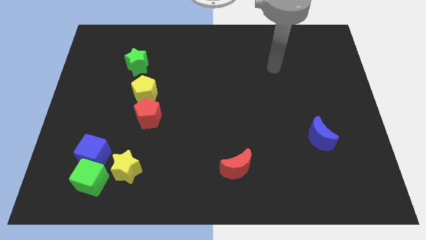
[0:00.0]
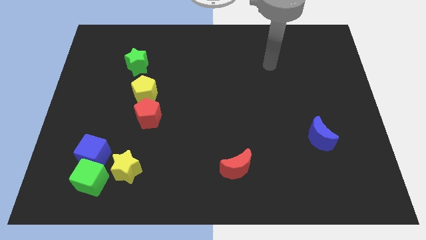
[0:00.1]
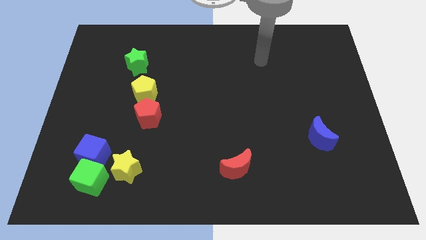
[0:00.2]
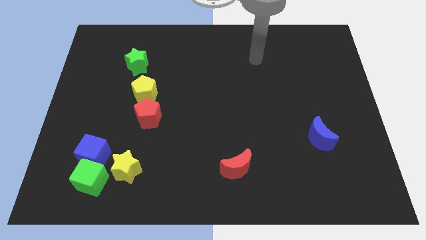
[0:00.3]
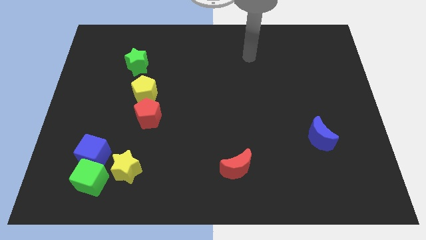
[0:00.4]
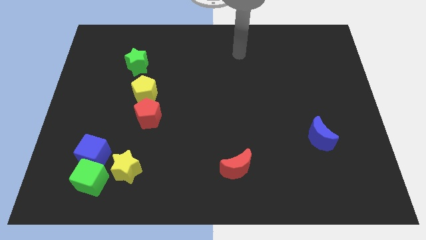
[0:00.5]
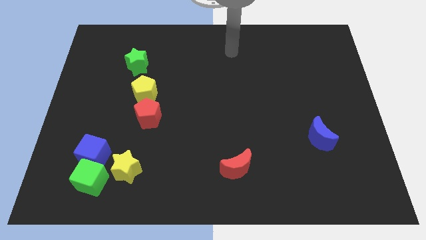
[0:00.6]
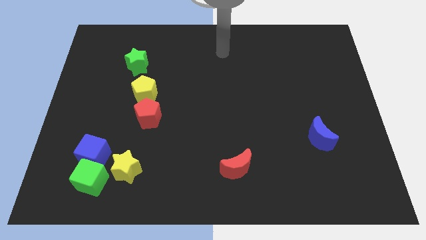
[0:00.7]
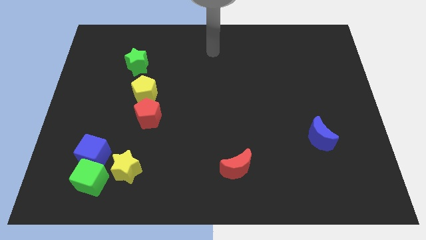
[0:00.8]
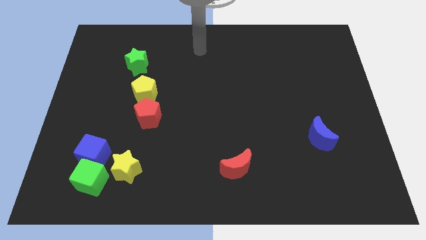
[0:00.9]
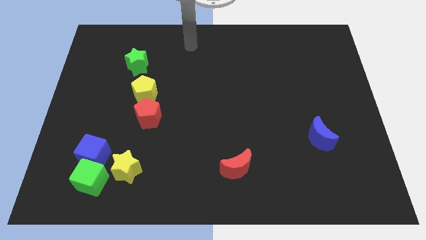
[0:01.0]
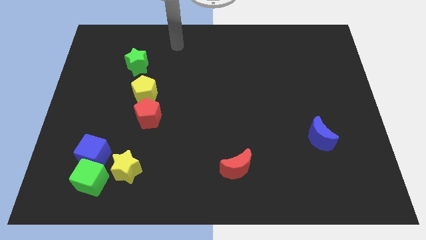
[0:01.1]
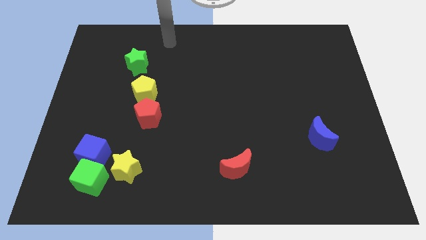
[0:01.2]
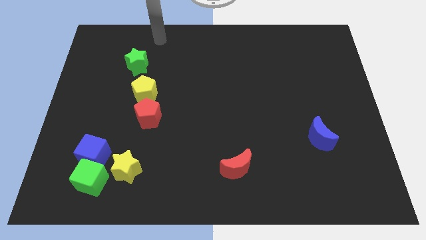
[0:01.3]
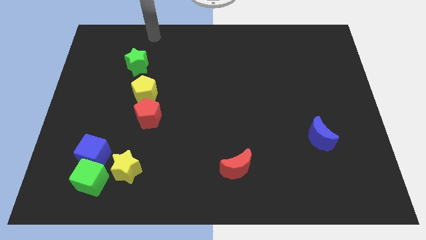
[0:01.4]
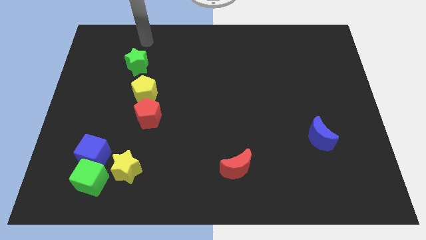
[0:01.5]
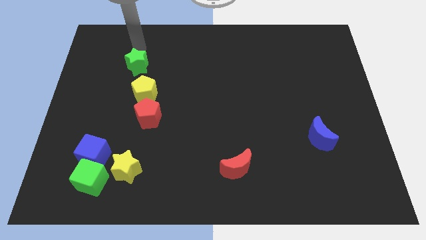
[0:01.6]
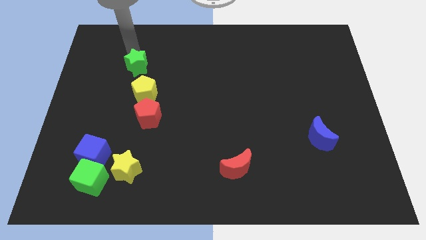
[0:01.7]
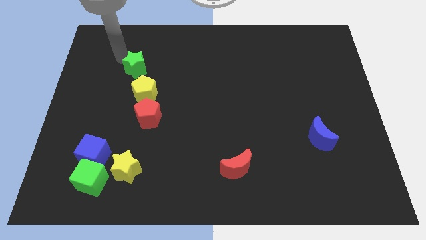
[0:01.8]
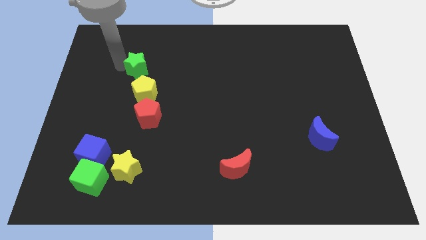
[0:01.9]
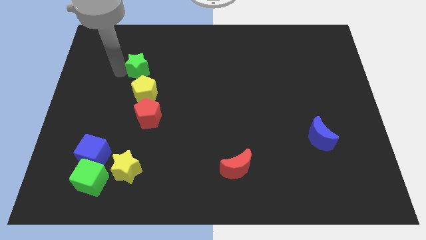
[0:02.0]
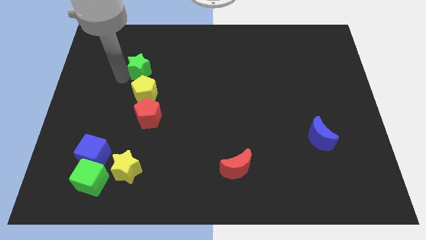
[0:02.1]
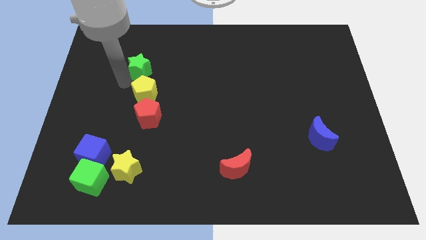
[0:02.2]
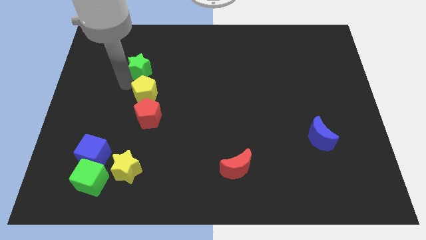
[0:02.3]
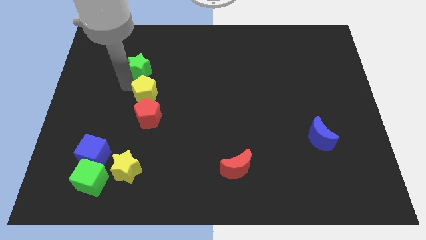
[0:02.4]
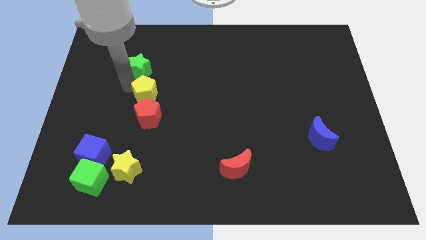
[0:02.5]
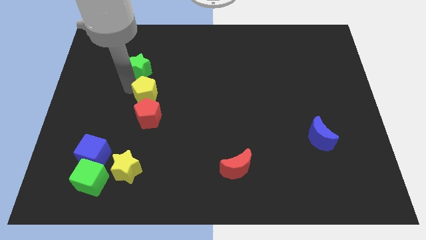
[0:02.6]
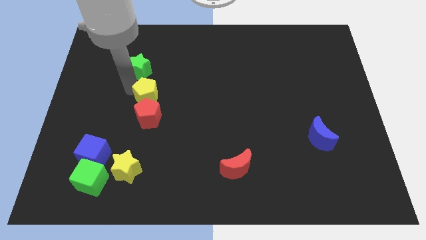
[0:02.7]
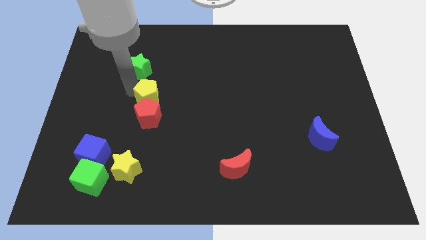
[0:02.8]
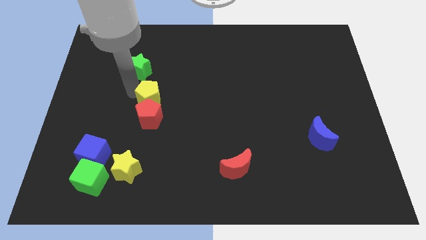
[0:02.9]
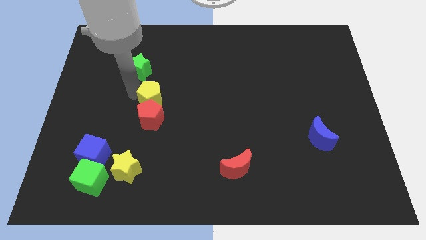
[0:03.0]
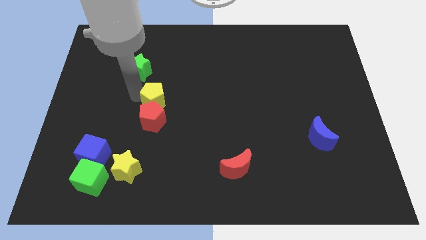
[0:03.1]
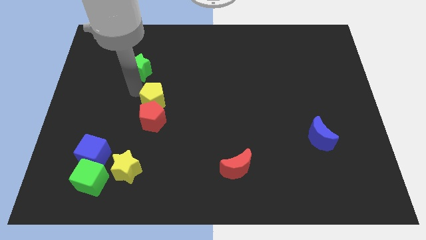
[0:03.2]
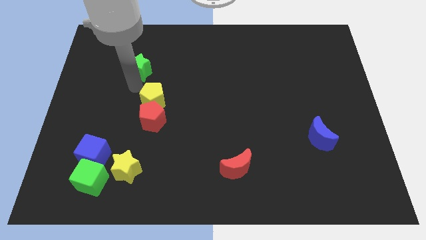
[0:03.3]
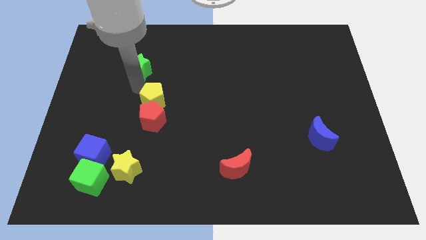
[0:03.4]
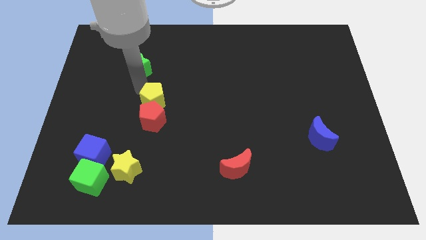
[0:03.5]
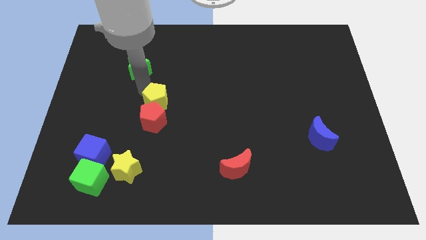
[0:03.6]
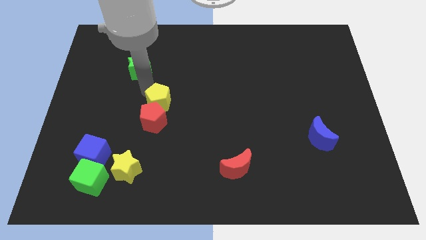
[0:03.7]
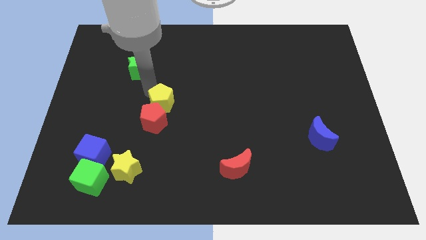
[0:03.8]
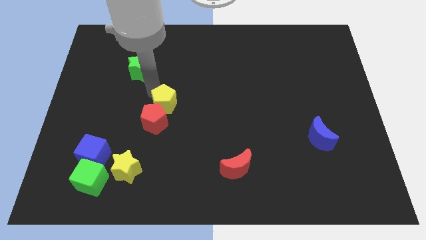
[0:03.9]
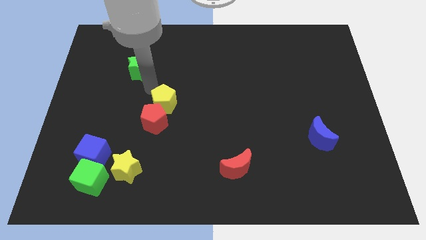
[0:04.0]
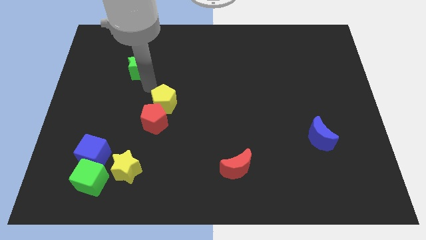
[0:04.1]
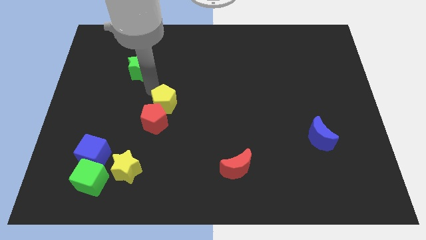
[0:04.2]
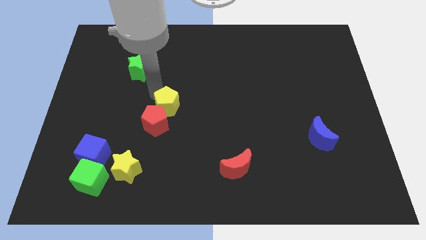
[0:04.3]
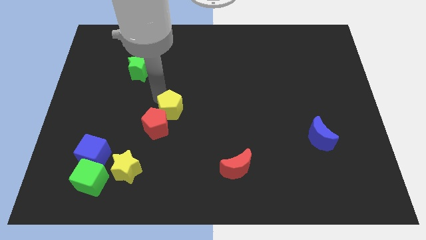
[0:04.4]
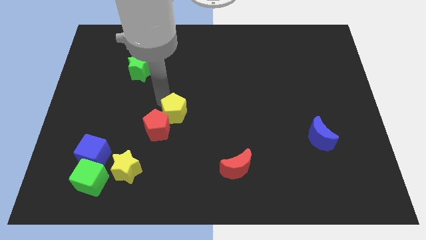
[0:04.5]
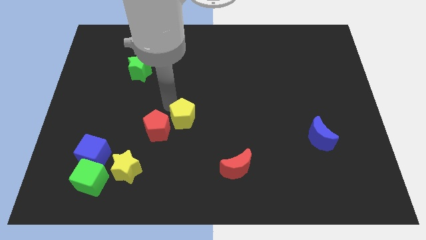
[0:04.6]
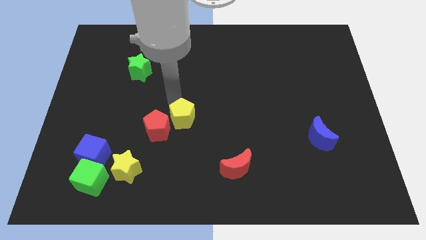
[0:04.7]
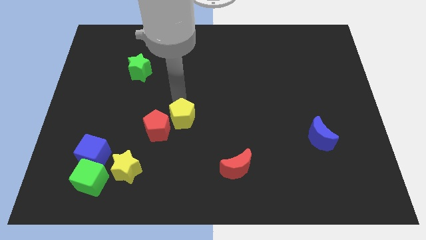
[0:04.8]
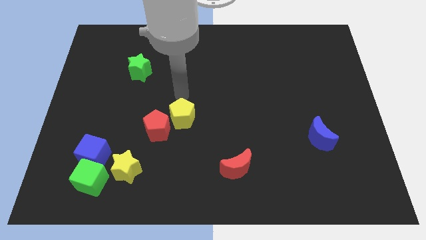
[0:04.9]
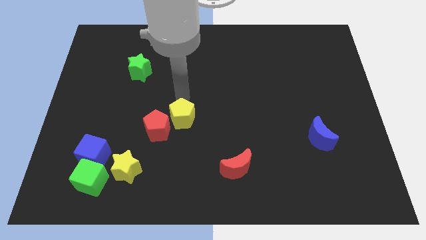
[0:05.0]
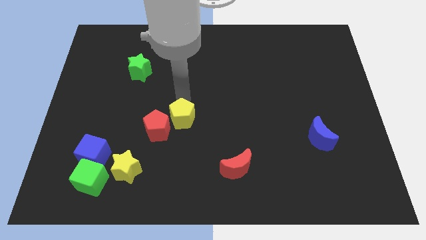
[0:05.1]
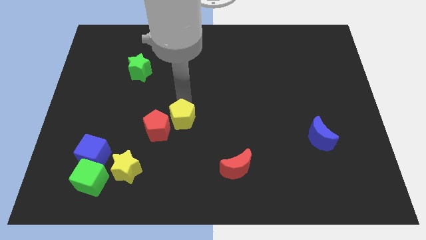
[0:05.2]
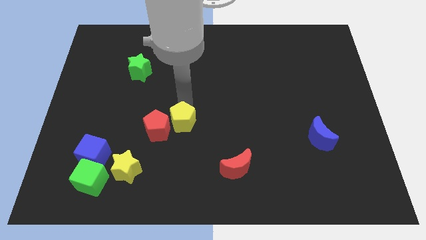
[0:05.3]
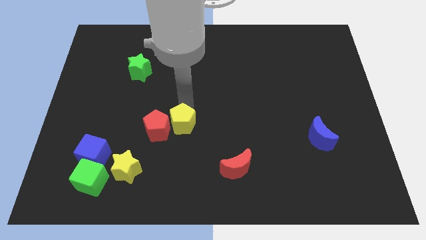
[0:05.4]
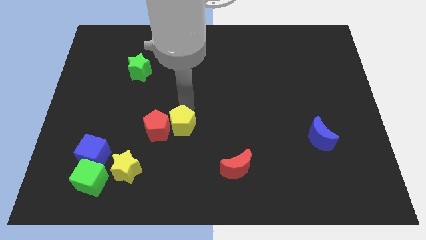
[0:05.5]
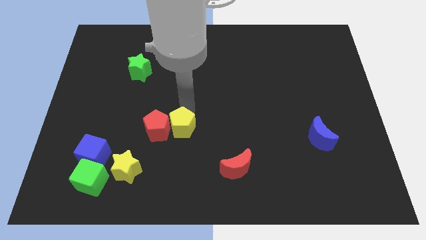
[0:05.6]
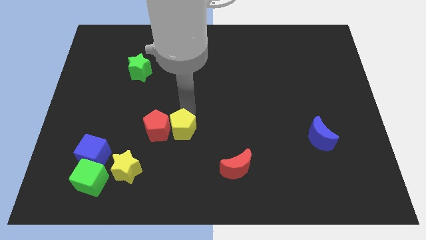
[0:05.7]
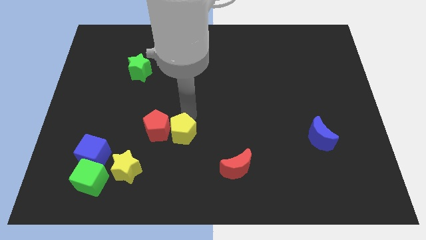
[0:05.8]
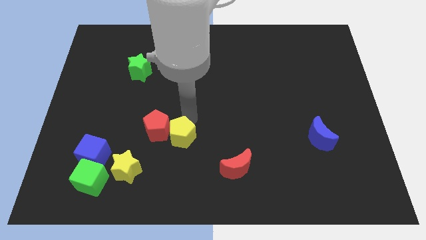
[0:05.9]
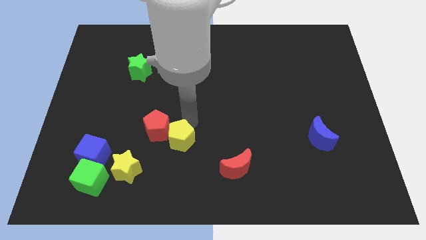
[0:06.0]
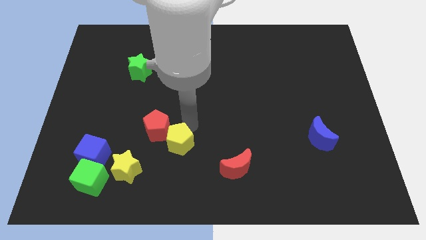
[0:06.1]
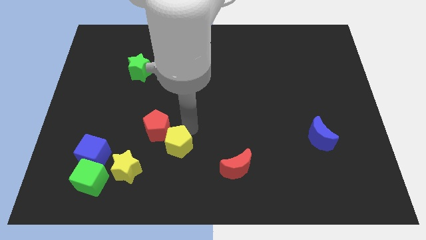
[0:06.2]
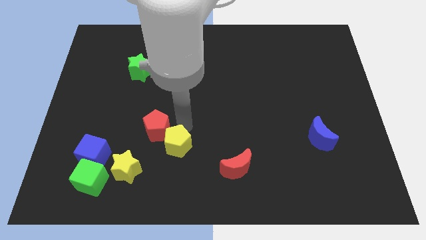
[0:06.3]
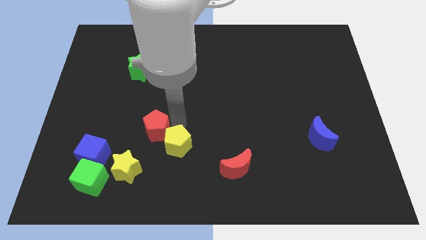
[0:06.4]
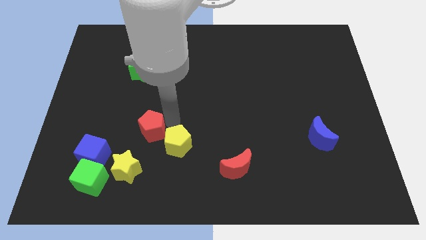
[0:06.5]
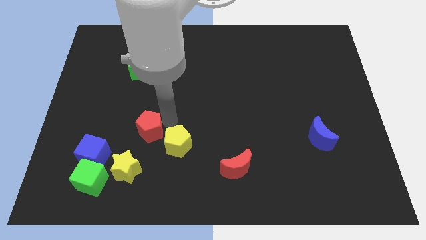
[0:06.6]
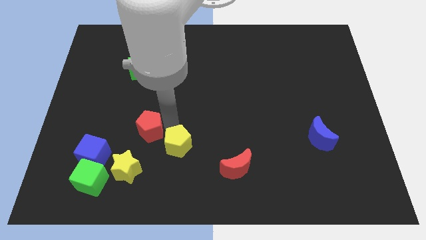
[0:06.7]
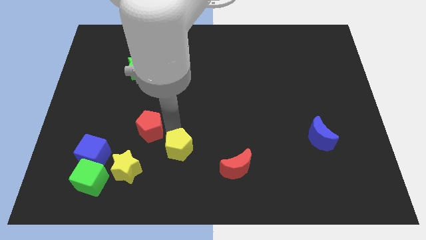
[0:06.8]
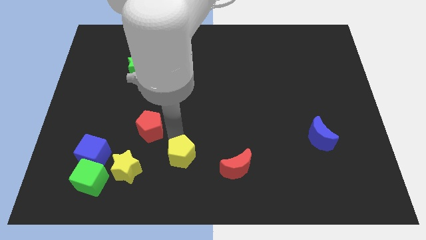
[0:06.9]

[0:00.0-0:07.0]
push the yellow pentagon left of the red moon

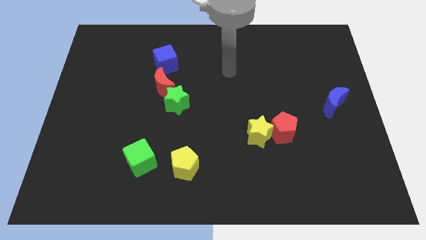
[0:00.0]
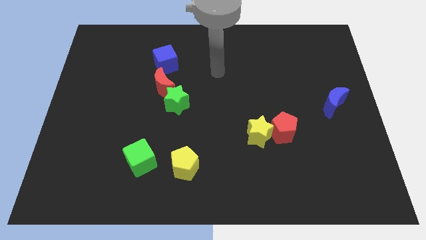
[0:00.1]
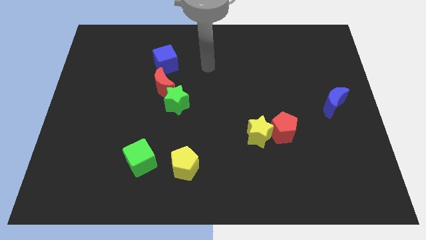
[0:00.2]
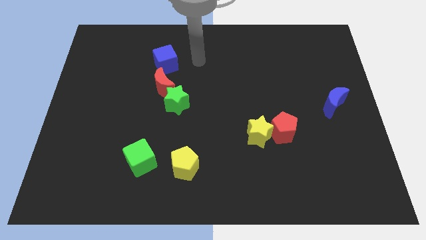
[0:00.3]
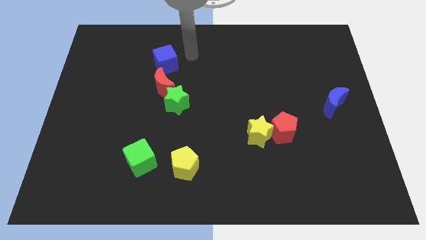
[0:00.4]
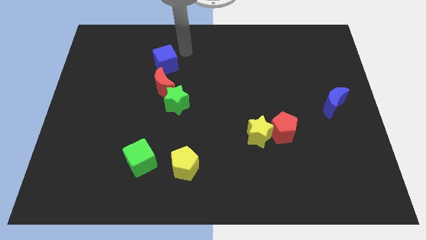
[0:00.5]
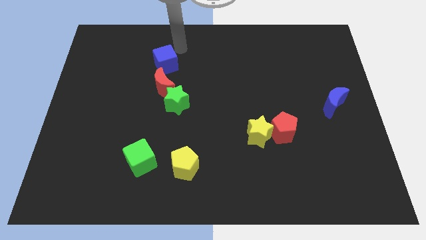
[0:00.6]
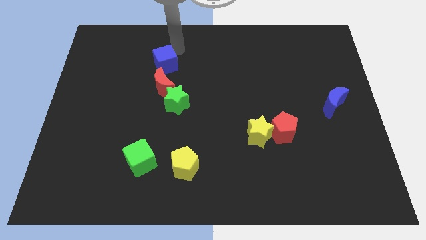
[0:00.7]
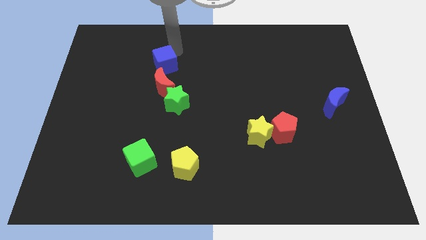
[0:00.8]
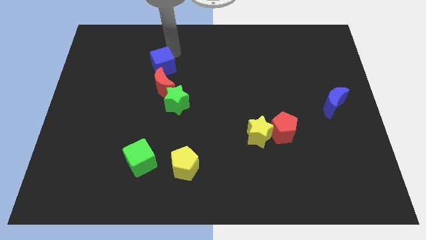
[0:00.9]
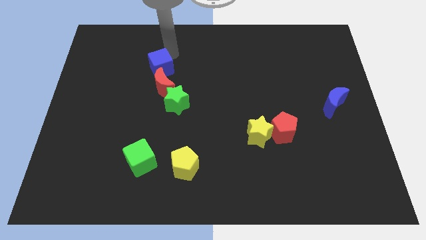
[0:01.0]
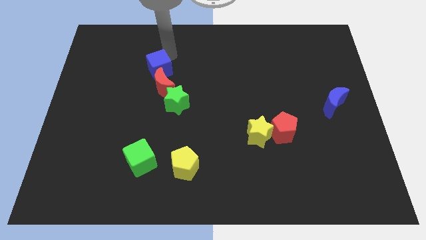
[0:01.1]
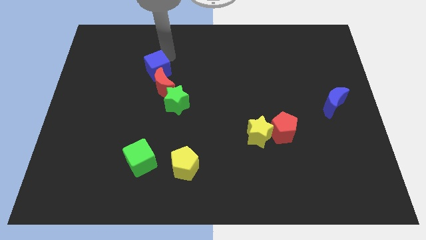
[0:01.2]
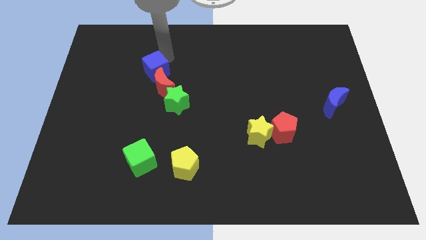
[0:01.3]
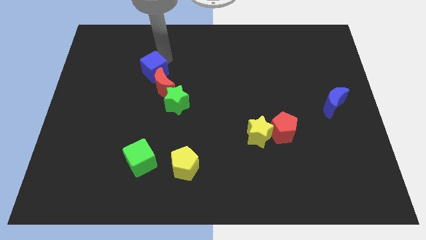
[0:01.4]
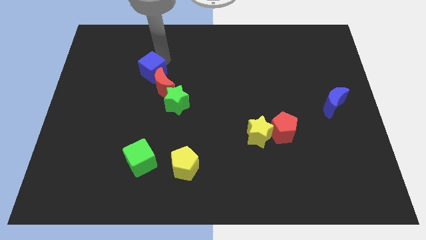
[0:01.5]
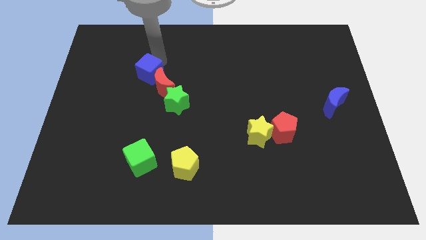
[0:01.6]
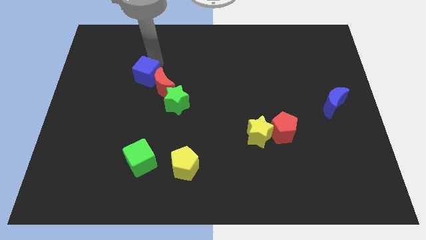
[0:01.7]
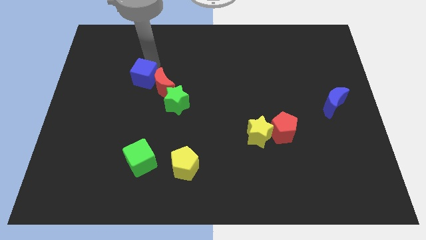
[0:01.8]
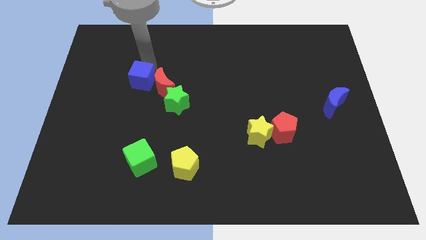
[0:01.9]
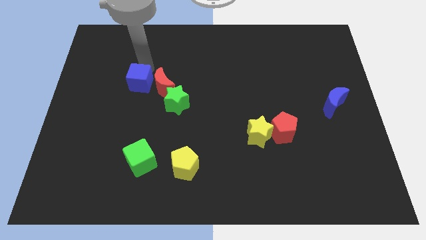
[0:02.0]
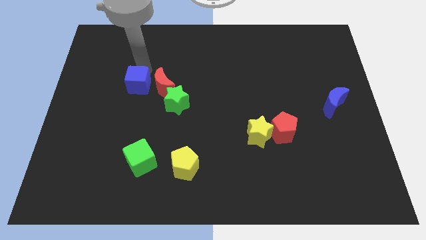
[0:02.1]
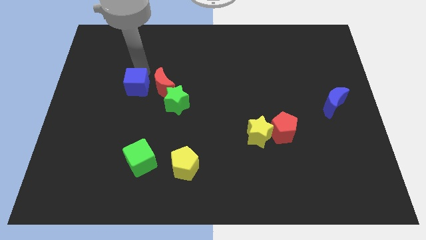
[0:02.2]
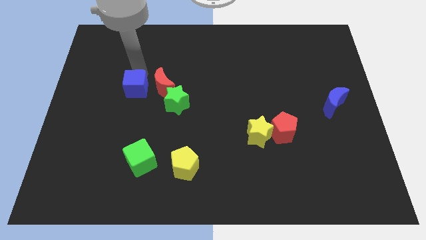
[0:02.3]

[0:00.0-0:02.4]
put the blue cube to the bottom left of the red moon
